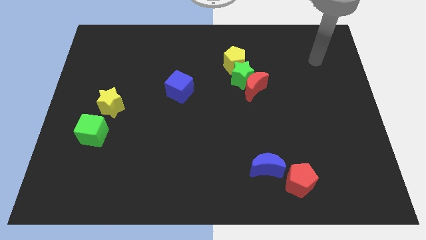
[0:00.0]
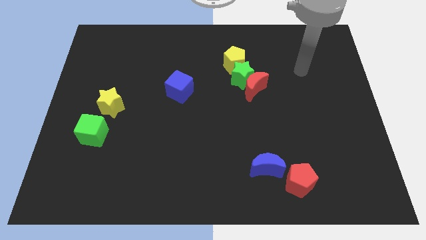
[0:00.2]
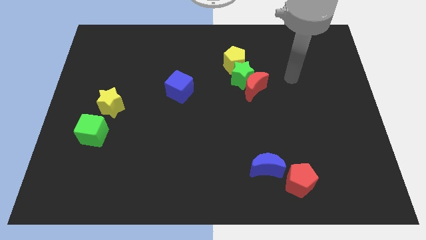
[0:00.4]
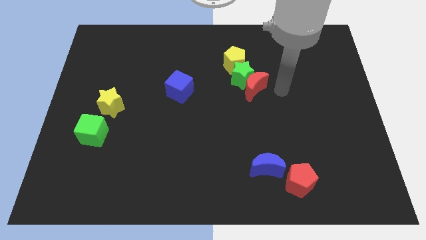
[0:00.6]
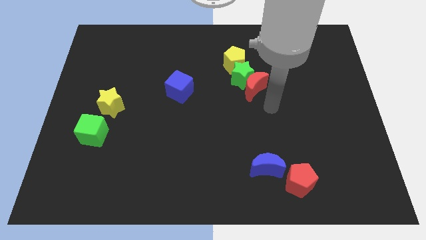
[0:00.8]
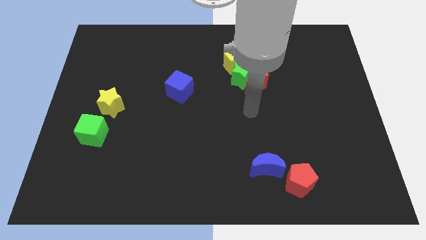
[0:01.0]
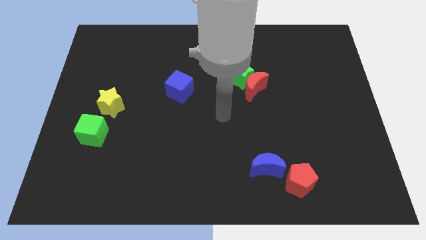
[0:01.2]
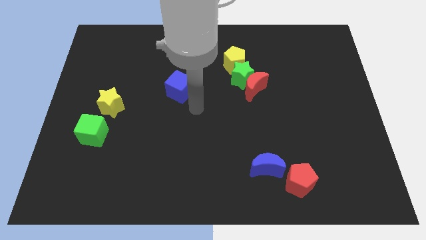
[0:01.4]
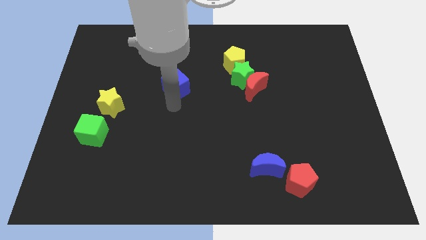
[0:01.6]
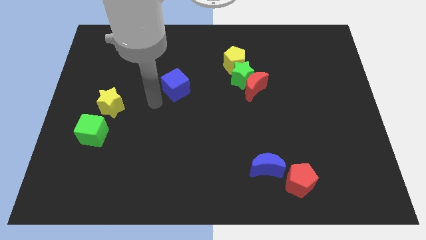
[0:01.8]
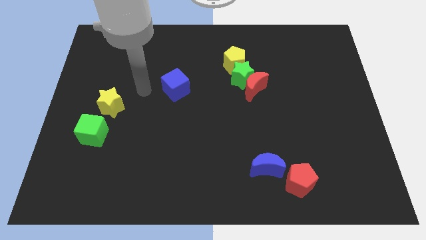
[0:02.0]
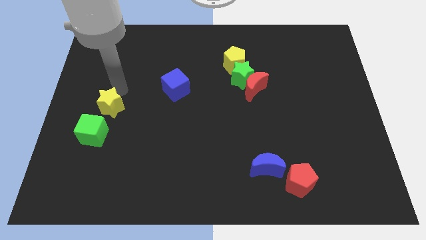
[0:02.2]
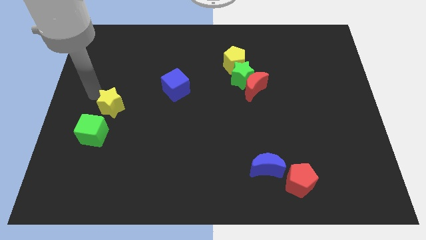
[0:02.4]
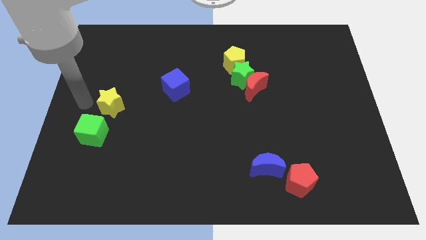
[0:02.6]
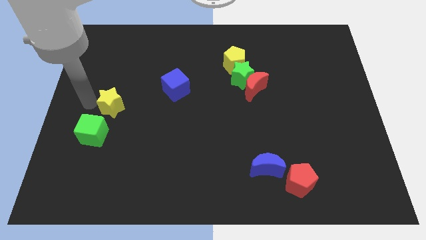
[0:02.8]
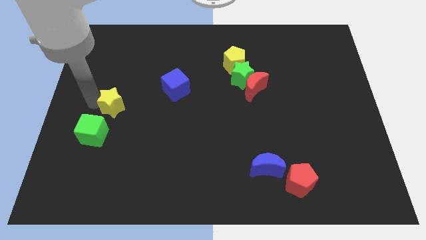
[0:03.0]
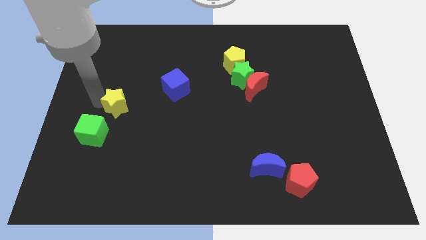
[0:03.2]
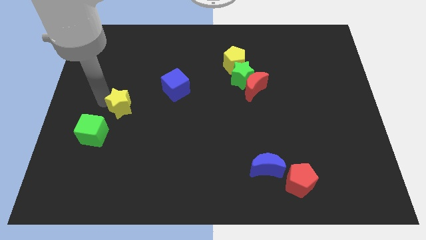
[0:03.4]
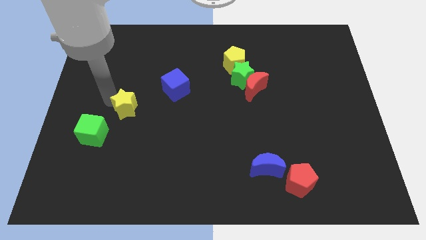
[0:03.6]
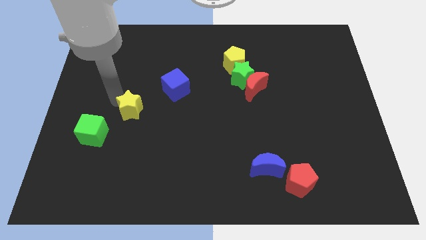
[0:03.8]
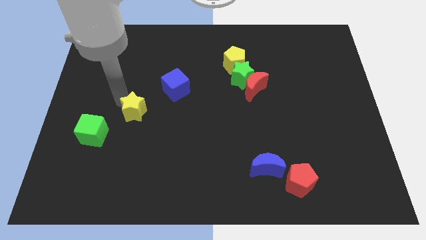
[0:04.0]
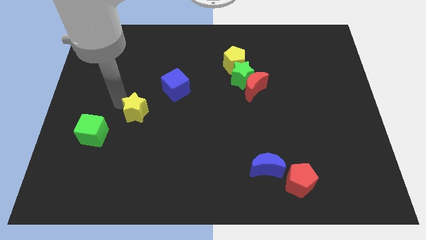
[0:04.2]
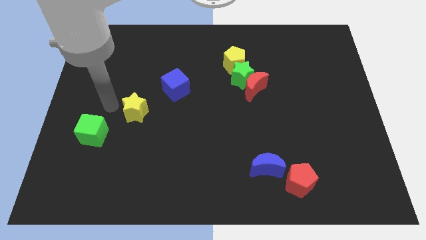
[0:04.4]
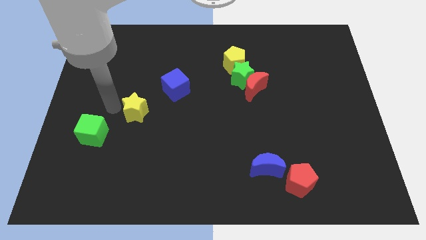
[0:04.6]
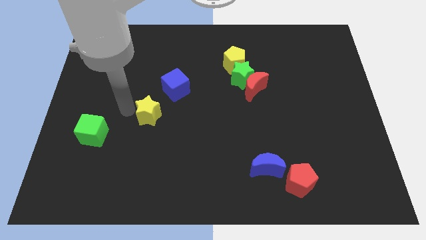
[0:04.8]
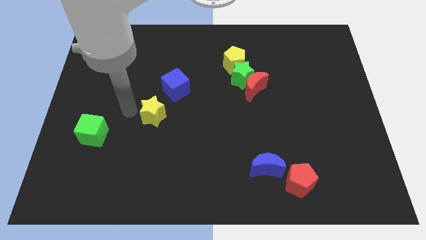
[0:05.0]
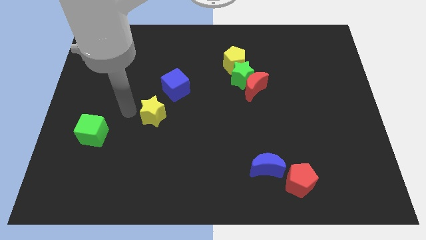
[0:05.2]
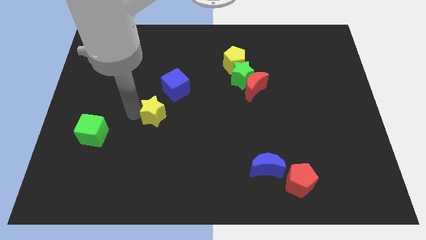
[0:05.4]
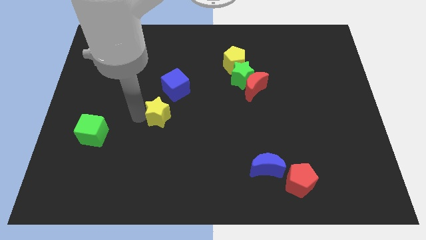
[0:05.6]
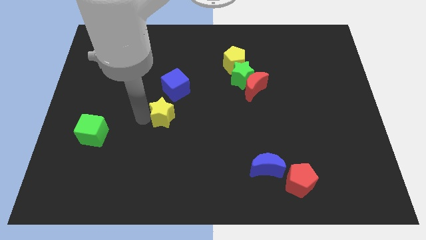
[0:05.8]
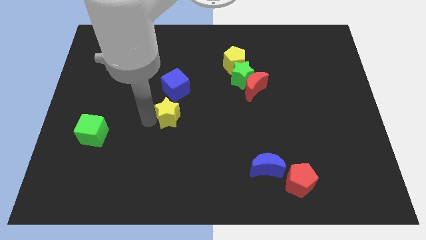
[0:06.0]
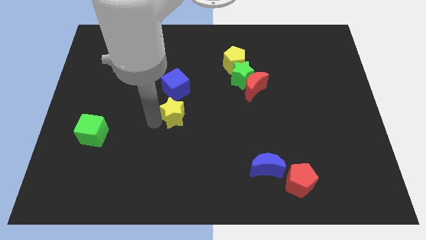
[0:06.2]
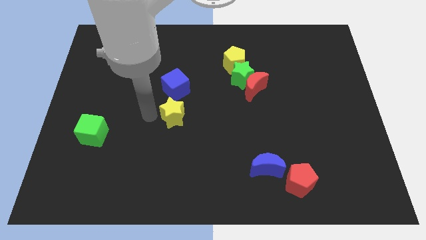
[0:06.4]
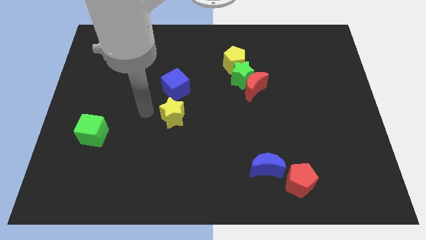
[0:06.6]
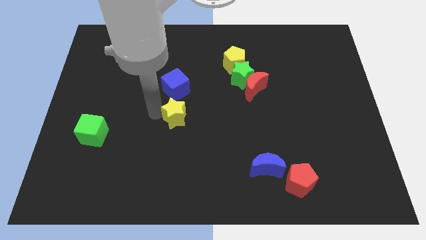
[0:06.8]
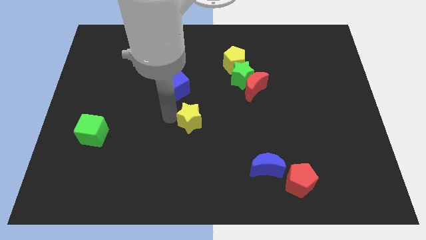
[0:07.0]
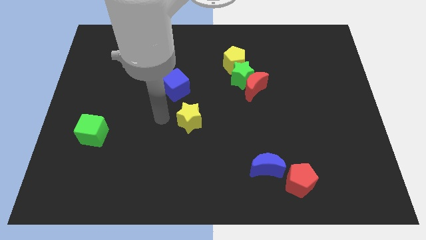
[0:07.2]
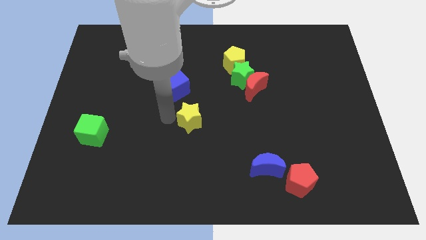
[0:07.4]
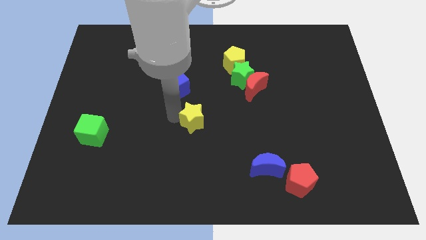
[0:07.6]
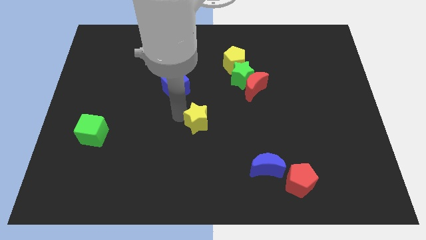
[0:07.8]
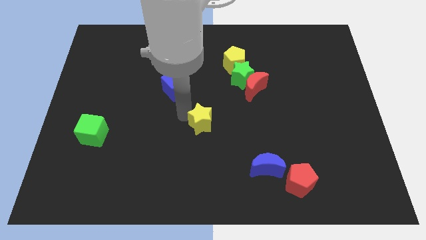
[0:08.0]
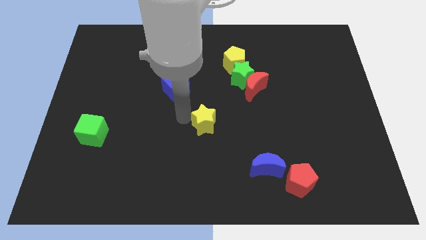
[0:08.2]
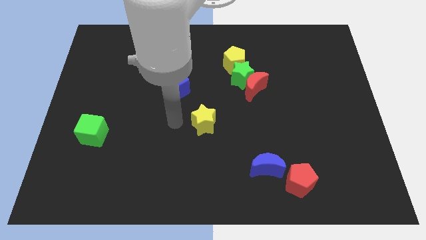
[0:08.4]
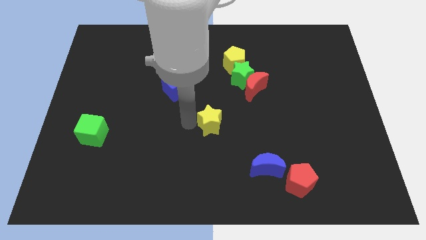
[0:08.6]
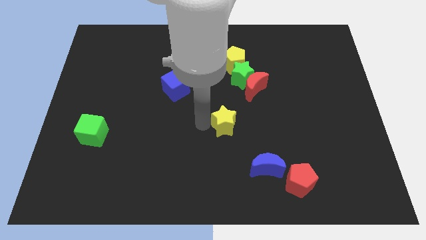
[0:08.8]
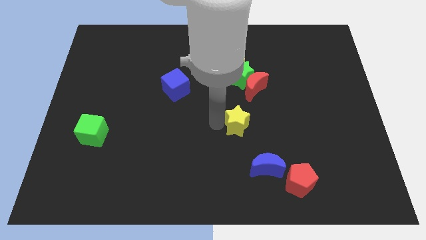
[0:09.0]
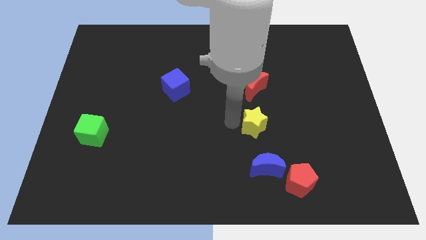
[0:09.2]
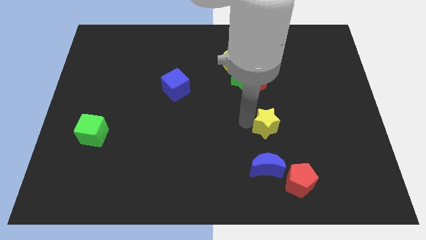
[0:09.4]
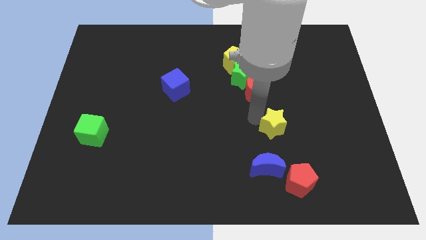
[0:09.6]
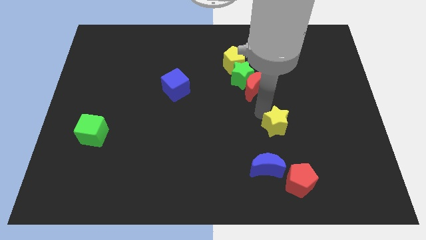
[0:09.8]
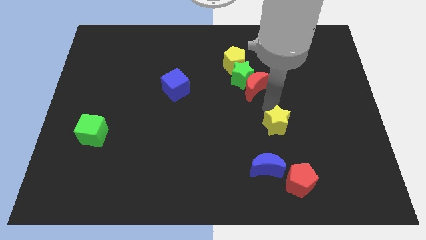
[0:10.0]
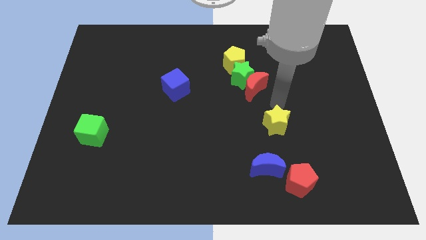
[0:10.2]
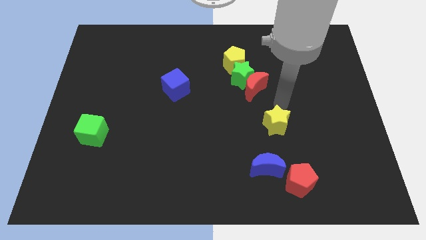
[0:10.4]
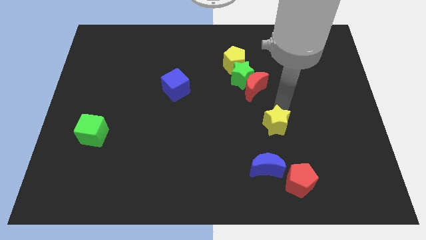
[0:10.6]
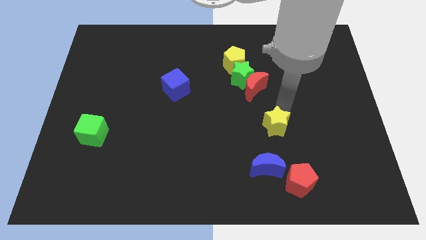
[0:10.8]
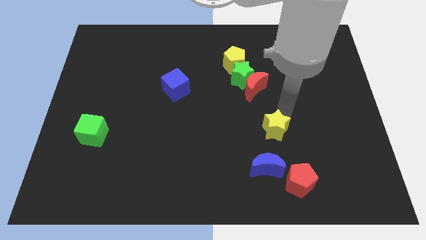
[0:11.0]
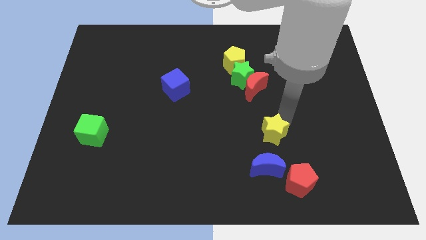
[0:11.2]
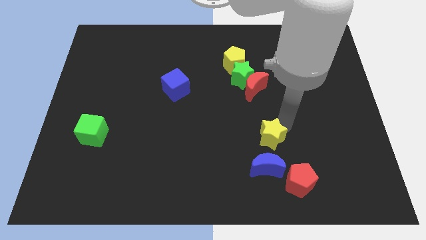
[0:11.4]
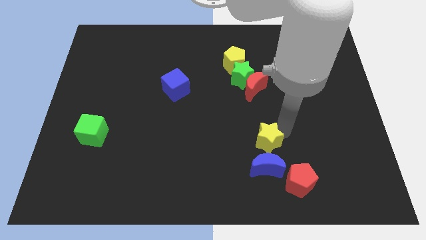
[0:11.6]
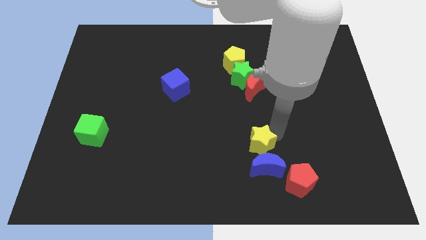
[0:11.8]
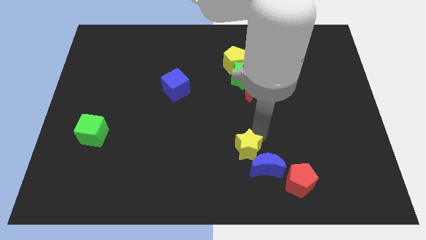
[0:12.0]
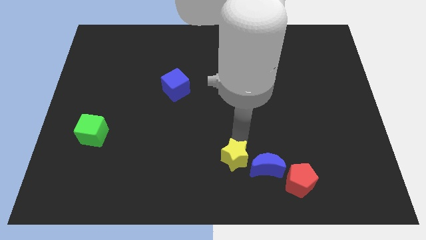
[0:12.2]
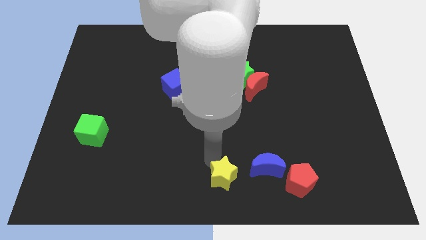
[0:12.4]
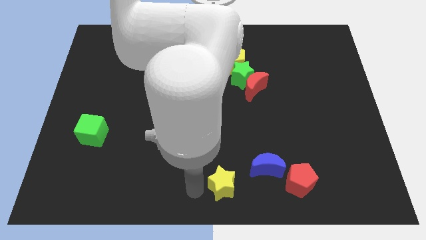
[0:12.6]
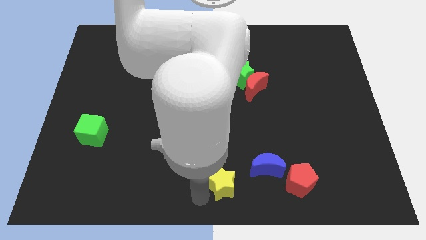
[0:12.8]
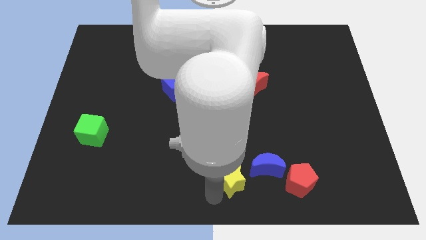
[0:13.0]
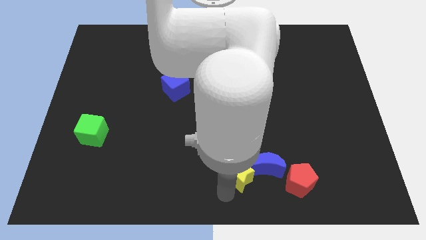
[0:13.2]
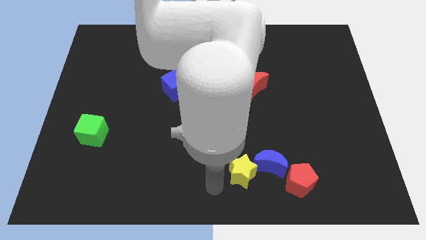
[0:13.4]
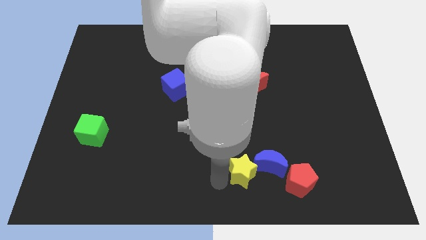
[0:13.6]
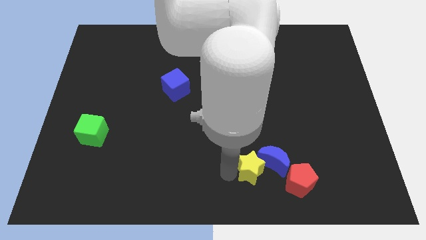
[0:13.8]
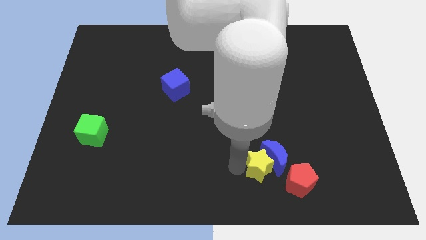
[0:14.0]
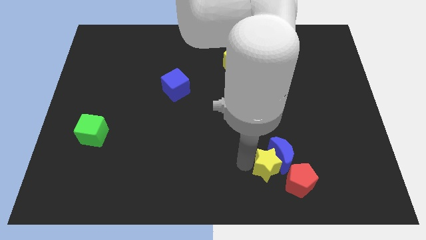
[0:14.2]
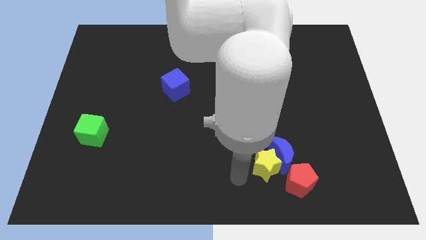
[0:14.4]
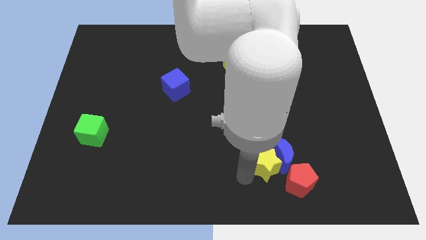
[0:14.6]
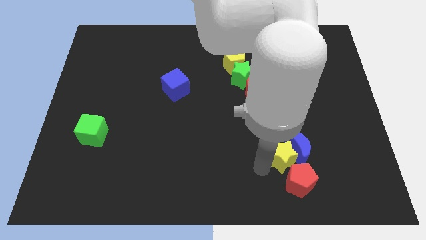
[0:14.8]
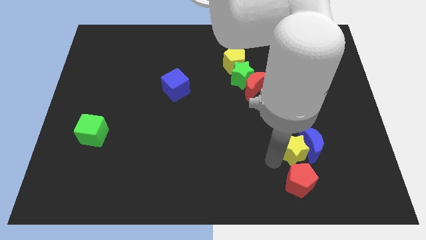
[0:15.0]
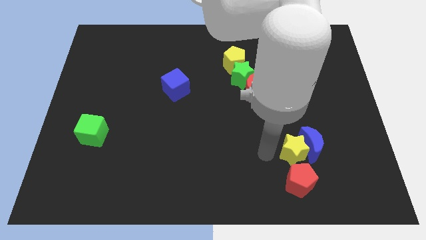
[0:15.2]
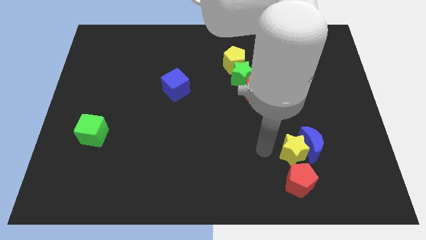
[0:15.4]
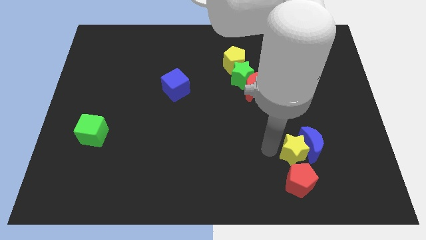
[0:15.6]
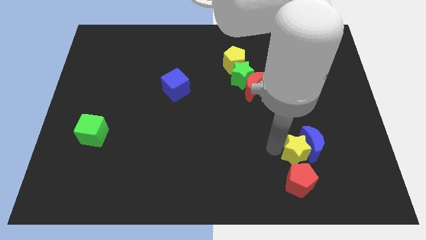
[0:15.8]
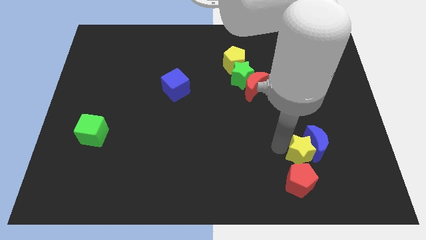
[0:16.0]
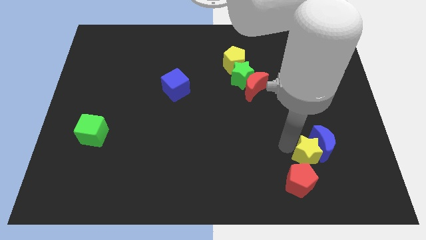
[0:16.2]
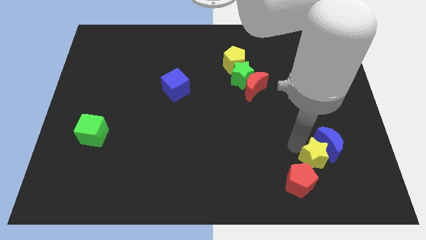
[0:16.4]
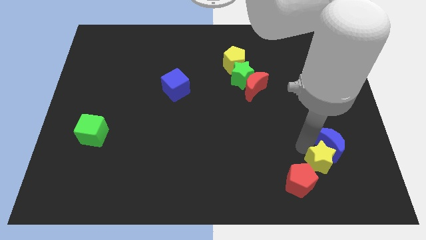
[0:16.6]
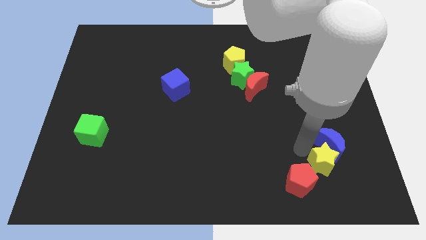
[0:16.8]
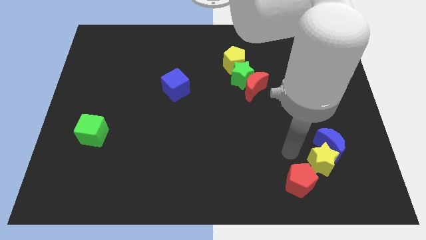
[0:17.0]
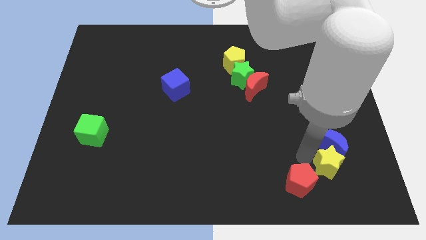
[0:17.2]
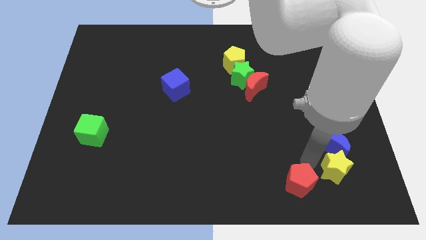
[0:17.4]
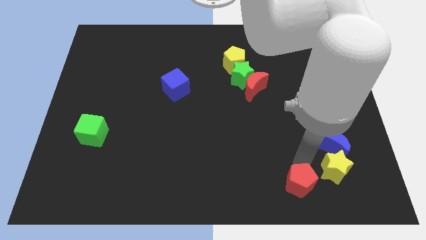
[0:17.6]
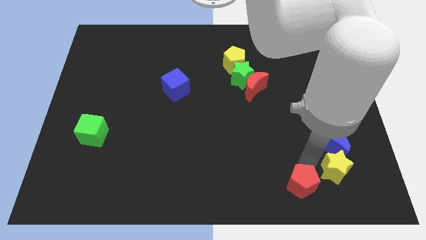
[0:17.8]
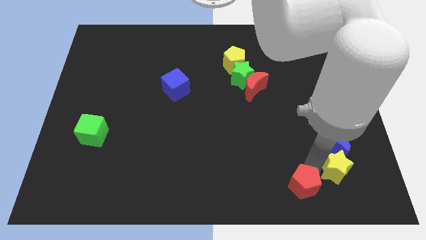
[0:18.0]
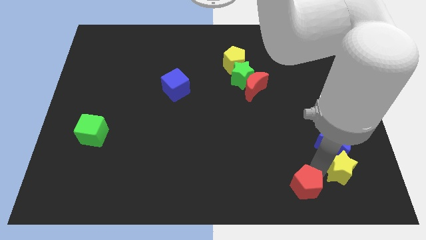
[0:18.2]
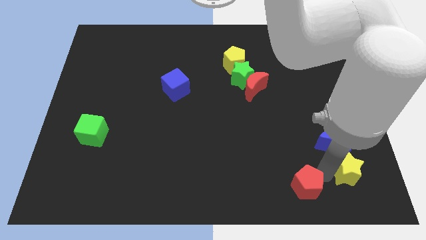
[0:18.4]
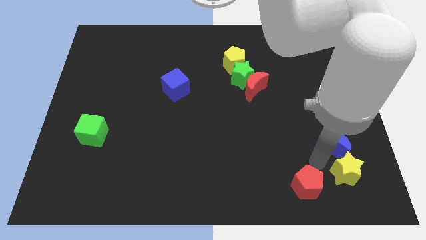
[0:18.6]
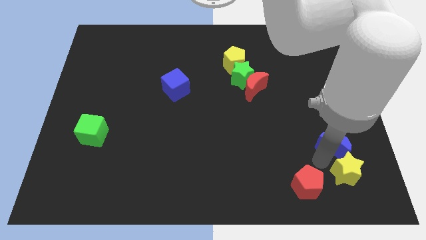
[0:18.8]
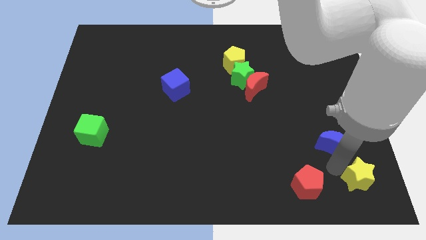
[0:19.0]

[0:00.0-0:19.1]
move the yellow star to the lower right corner
